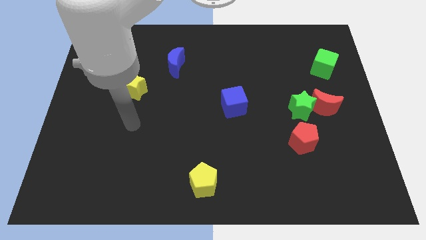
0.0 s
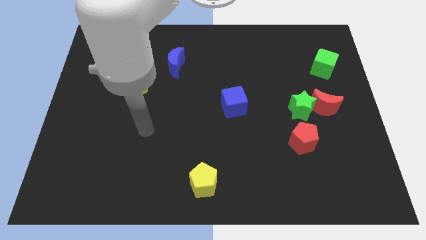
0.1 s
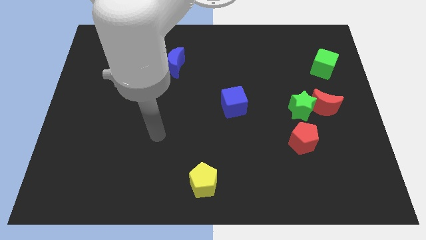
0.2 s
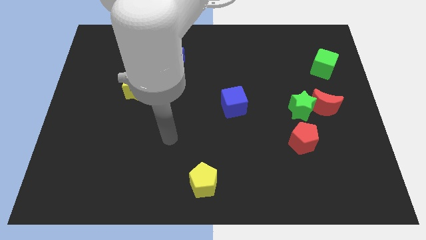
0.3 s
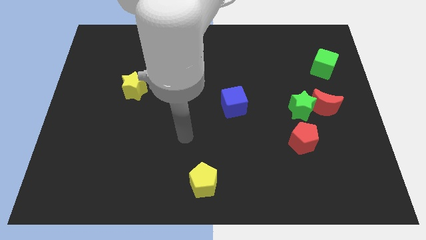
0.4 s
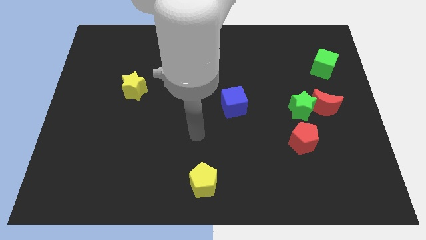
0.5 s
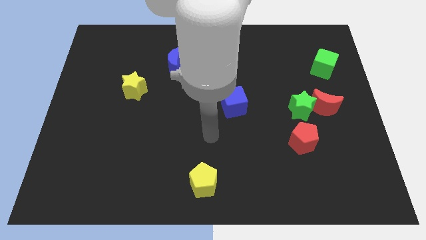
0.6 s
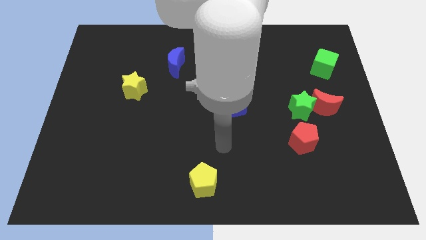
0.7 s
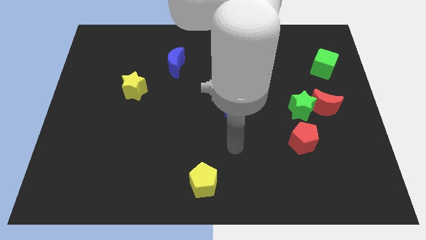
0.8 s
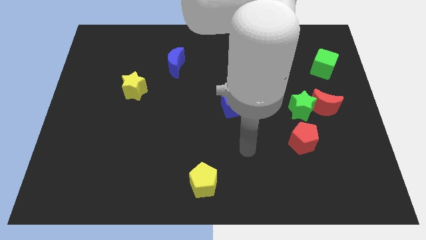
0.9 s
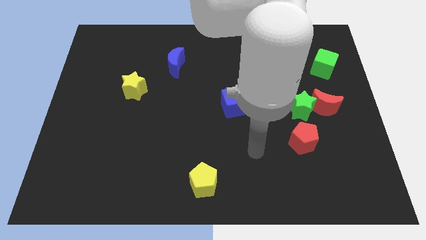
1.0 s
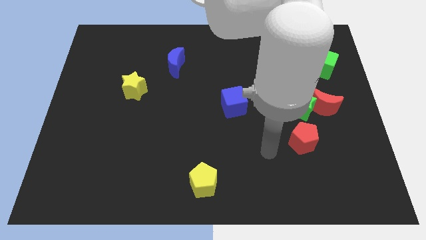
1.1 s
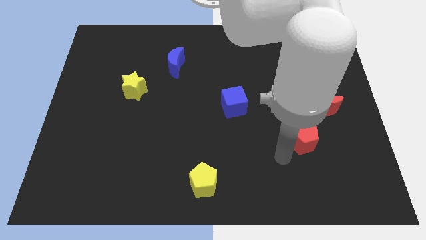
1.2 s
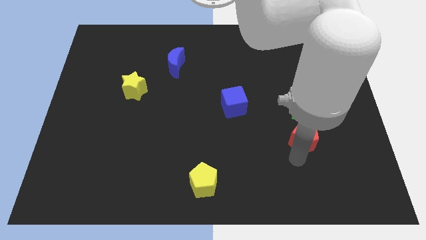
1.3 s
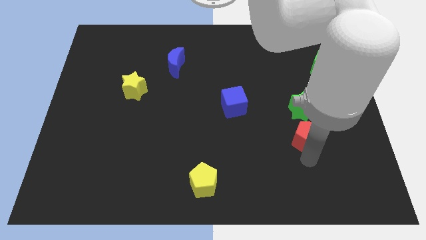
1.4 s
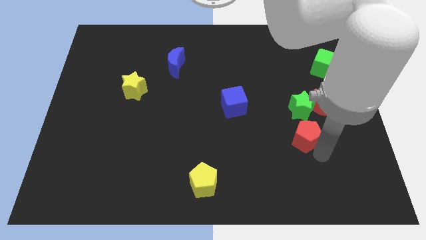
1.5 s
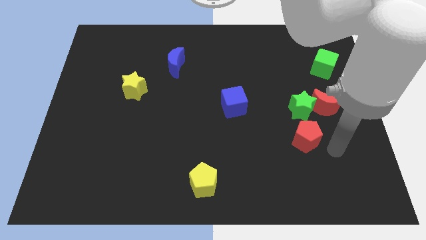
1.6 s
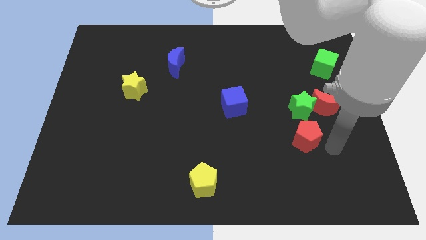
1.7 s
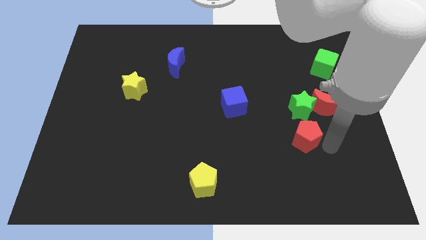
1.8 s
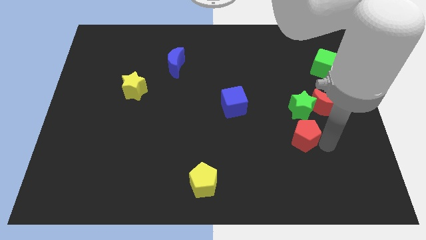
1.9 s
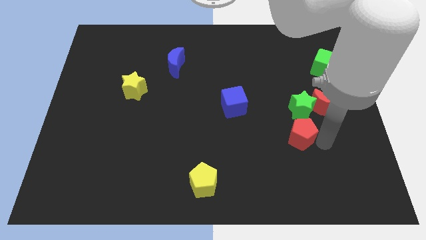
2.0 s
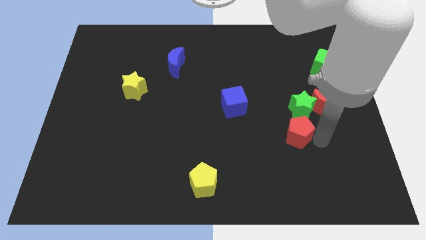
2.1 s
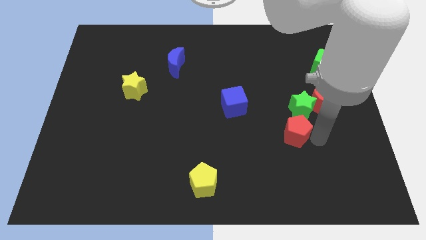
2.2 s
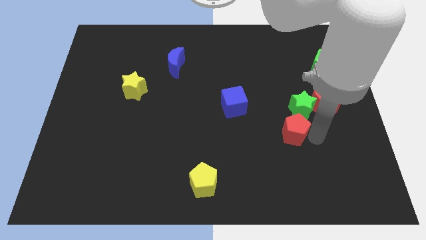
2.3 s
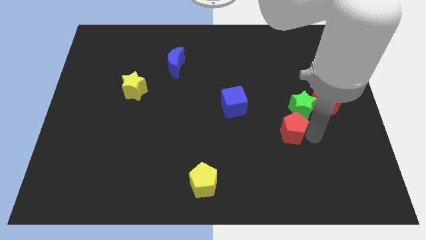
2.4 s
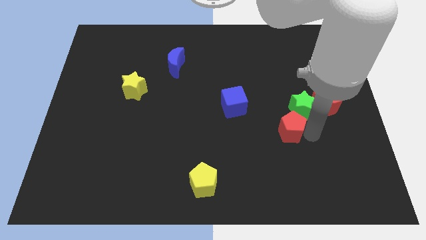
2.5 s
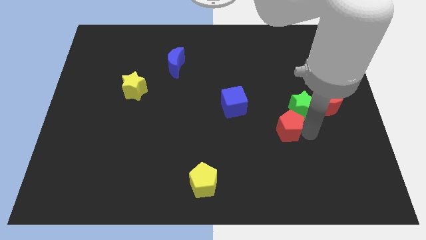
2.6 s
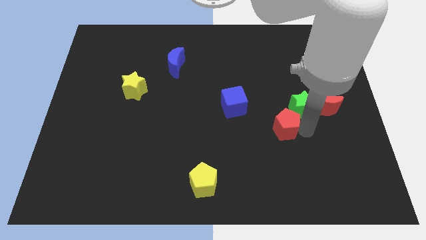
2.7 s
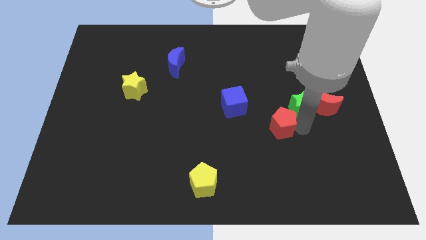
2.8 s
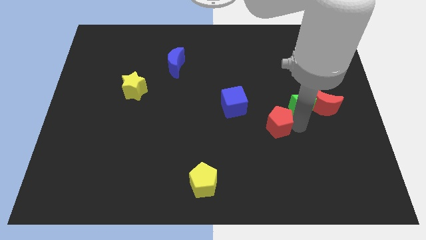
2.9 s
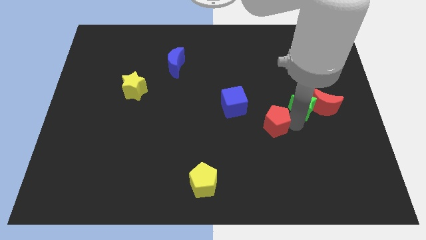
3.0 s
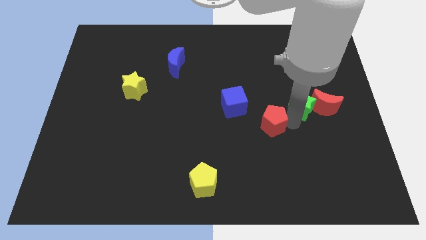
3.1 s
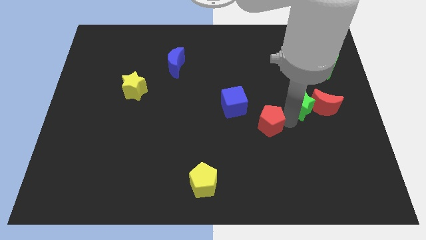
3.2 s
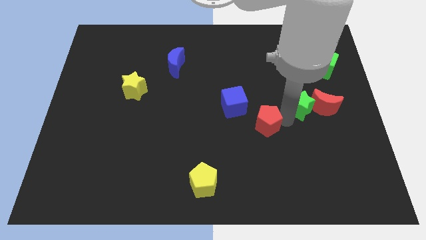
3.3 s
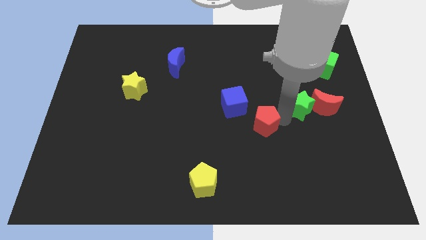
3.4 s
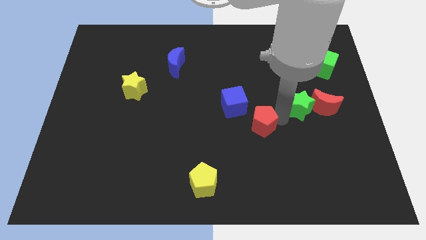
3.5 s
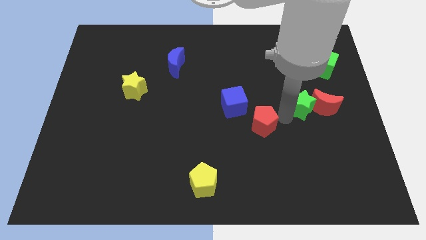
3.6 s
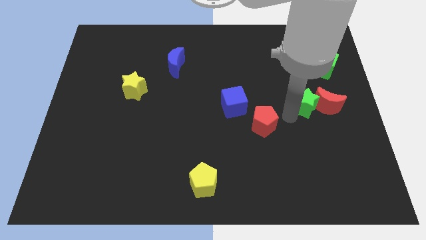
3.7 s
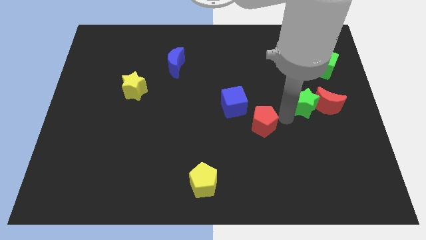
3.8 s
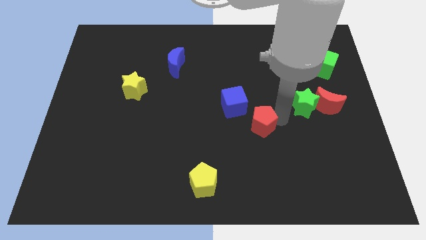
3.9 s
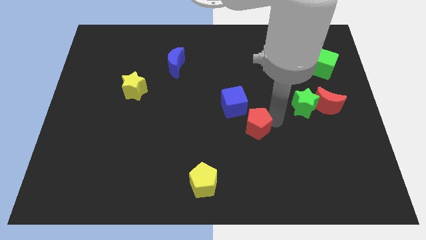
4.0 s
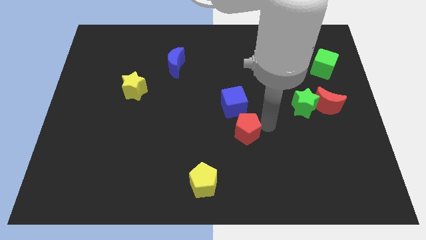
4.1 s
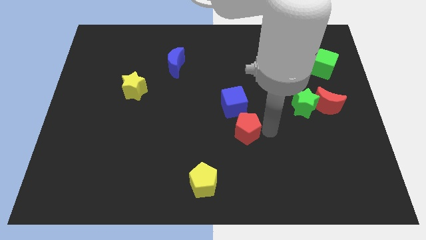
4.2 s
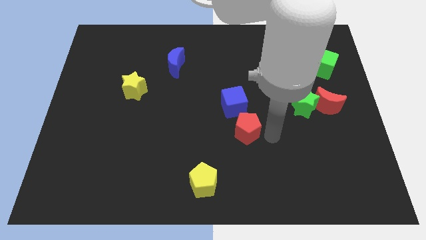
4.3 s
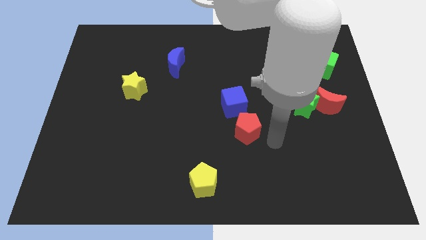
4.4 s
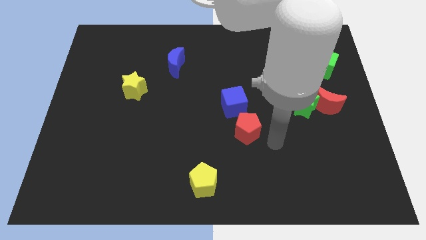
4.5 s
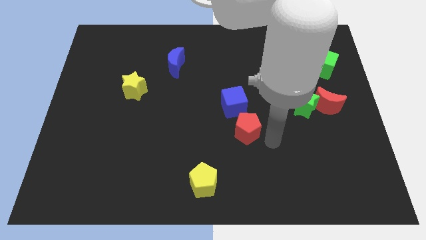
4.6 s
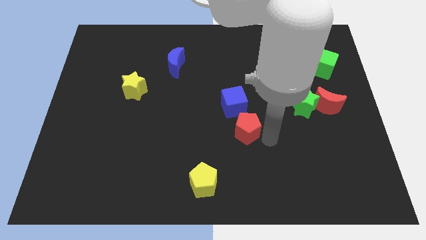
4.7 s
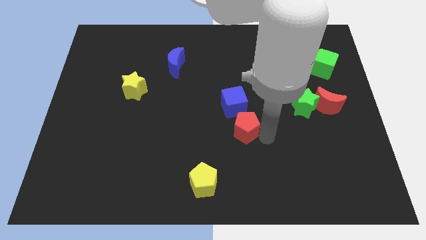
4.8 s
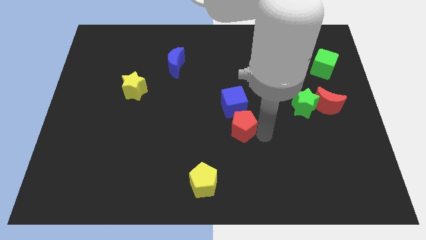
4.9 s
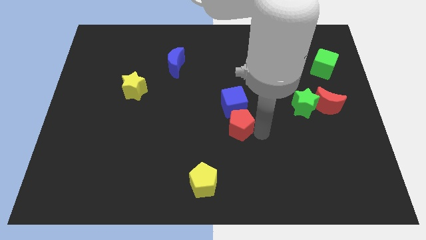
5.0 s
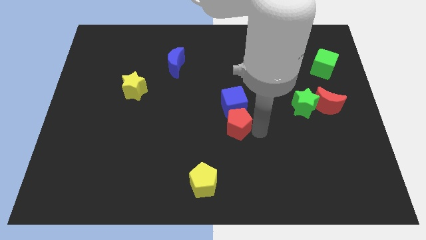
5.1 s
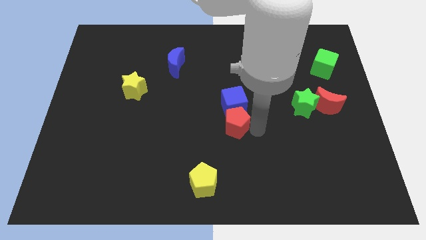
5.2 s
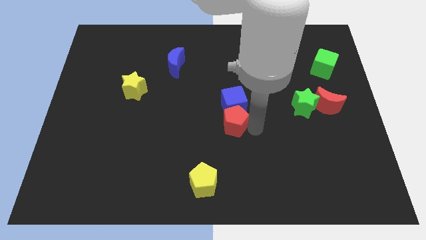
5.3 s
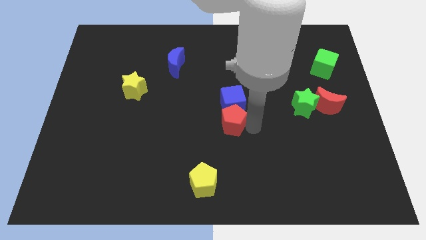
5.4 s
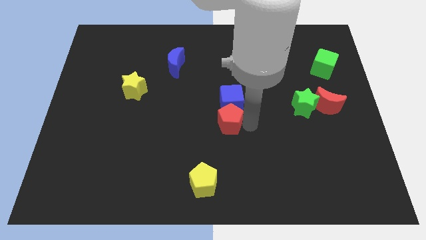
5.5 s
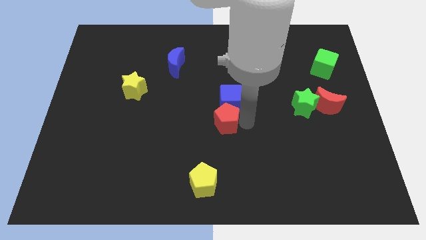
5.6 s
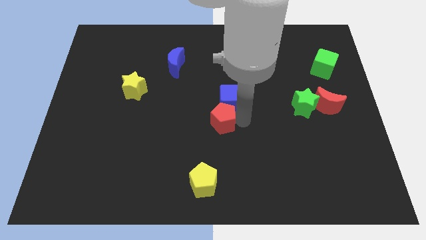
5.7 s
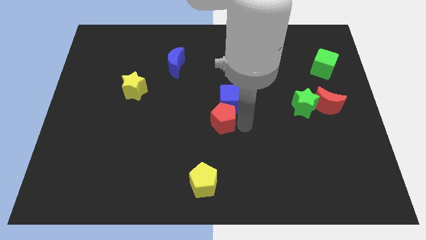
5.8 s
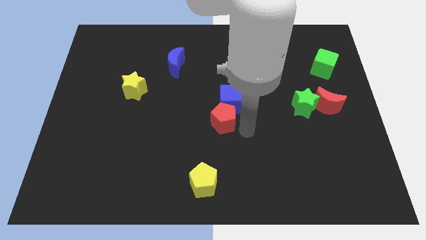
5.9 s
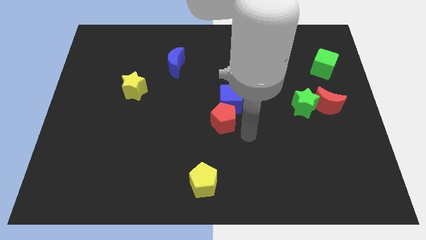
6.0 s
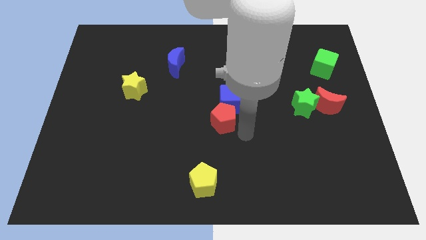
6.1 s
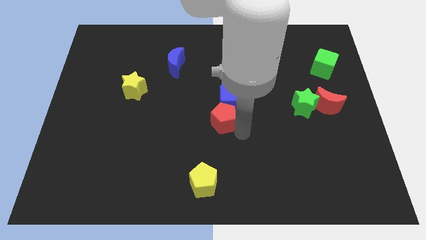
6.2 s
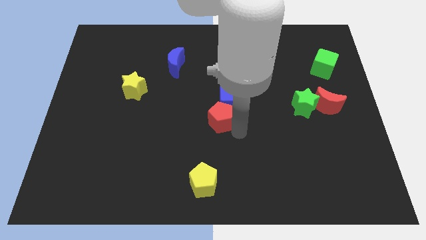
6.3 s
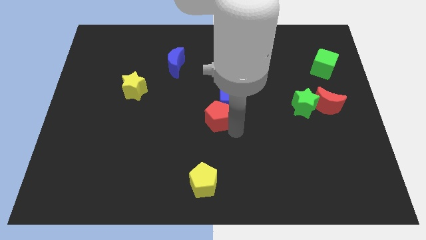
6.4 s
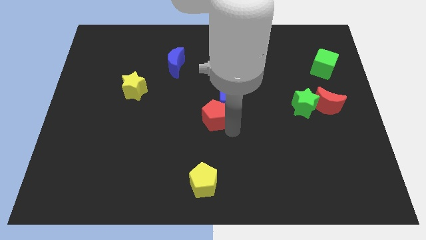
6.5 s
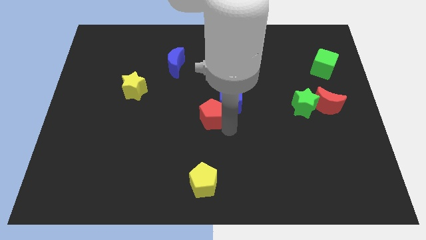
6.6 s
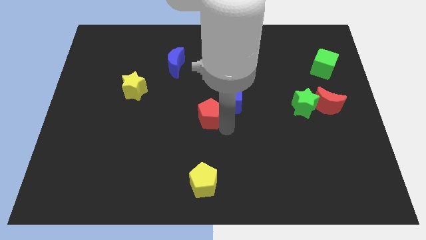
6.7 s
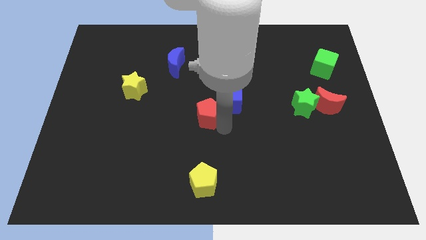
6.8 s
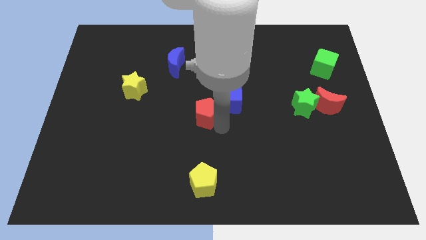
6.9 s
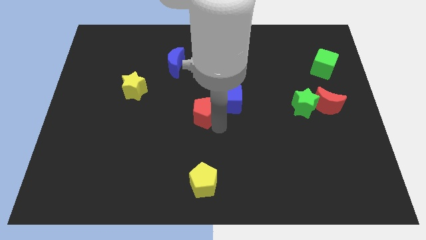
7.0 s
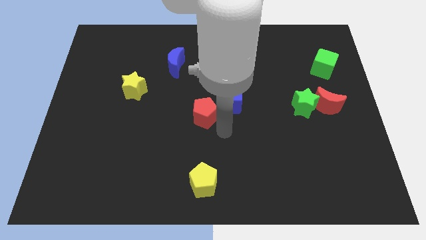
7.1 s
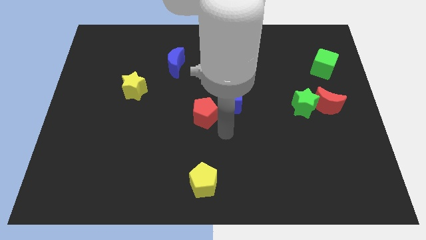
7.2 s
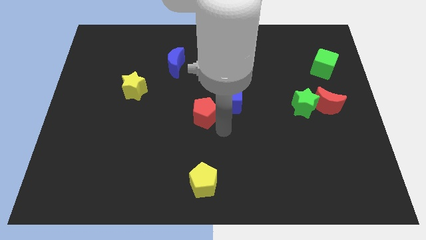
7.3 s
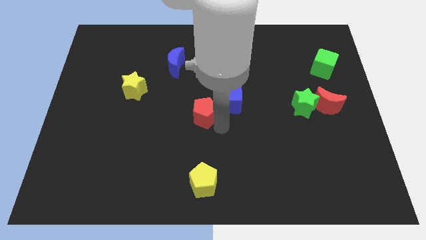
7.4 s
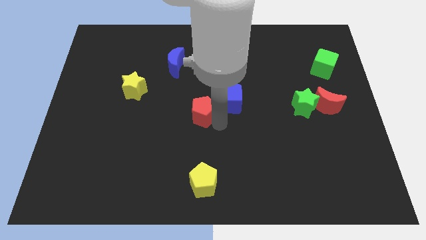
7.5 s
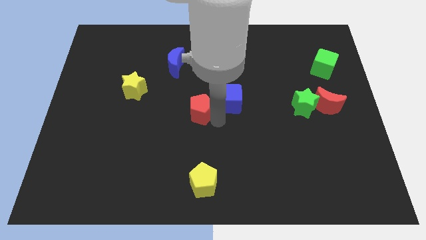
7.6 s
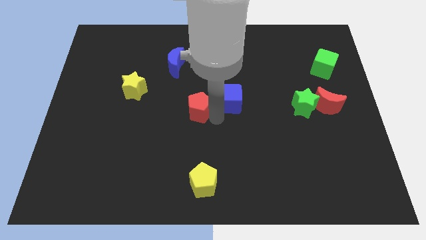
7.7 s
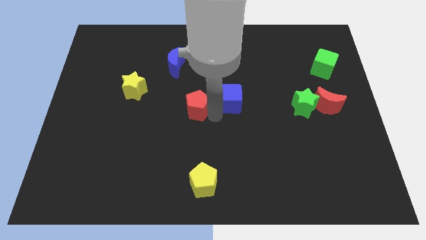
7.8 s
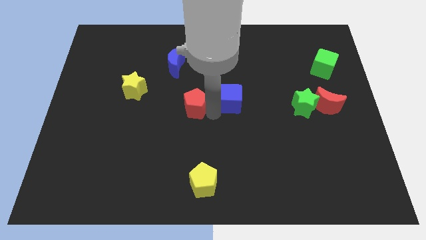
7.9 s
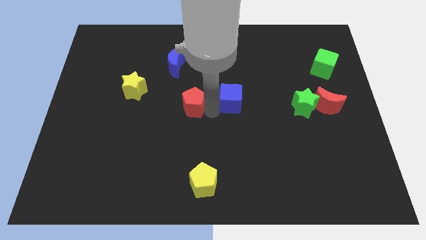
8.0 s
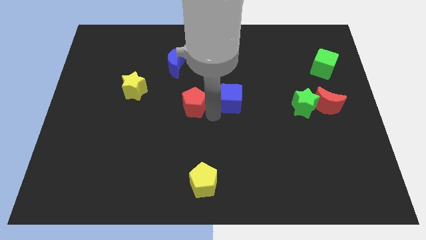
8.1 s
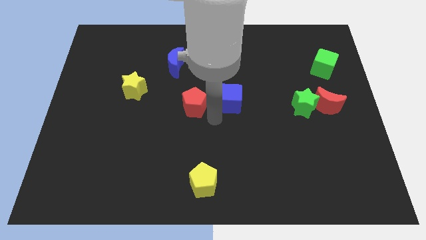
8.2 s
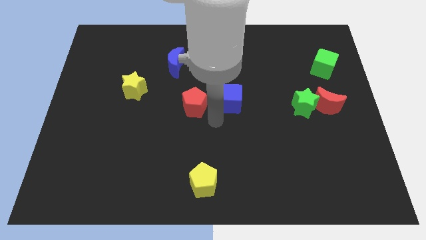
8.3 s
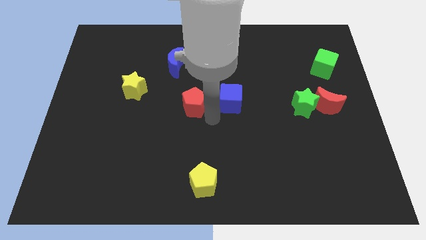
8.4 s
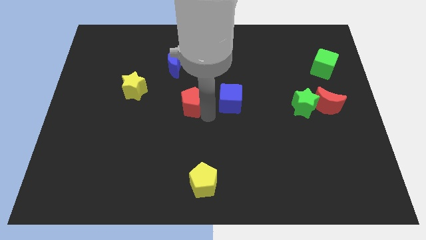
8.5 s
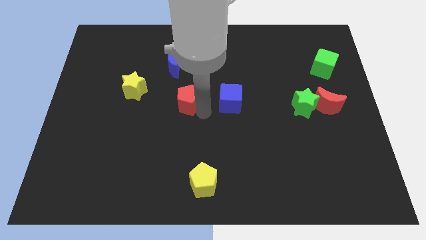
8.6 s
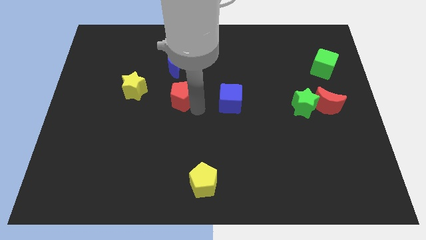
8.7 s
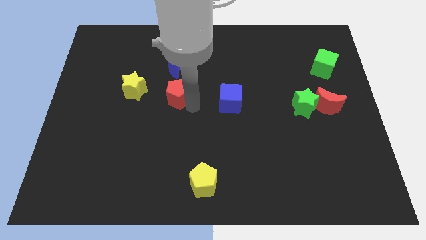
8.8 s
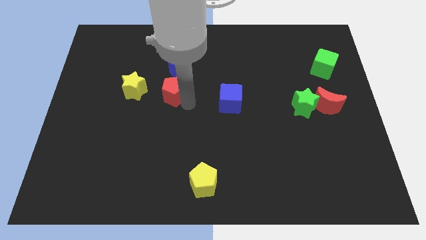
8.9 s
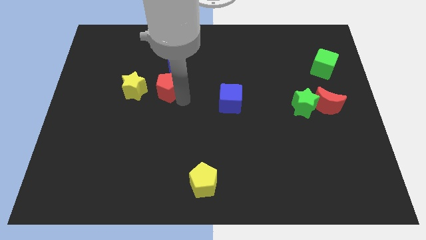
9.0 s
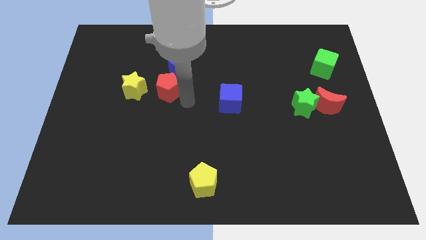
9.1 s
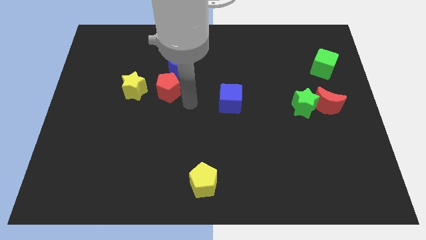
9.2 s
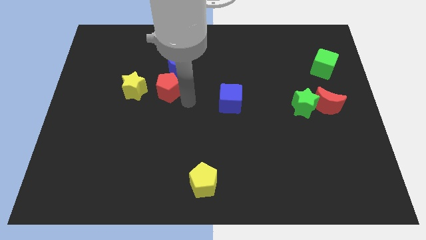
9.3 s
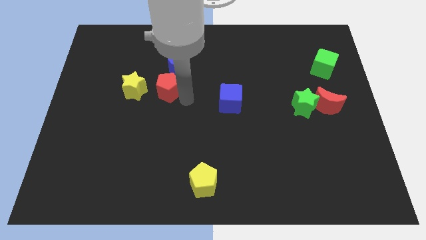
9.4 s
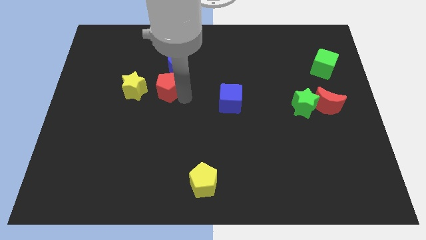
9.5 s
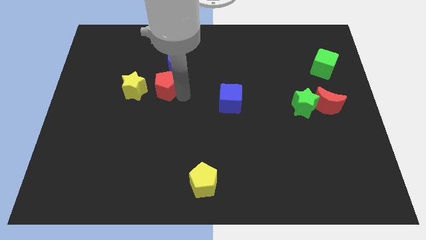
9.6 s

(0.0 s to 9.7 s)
push the red pentagon to the bottom left side of the blue moon
